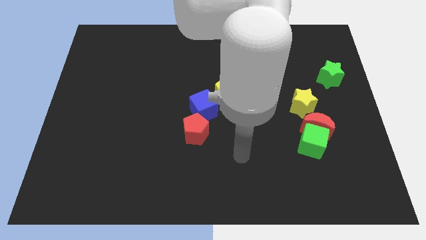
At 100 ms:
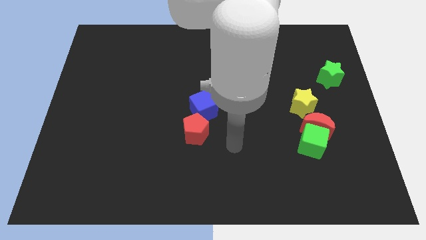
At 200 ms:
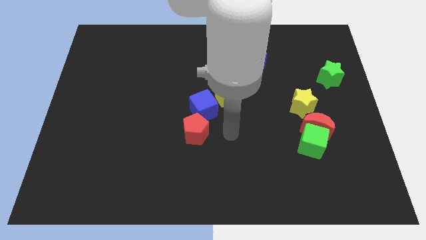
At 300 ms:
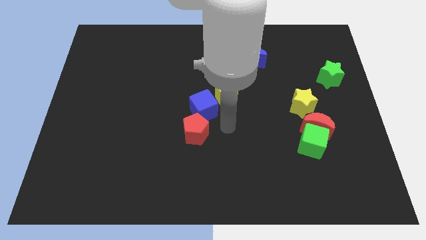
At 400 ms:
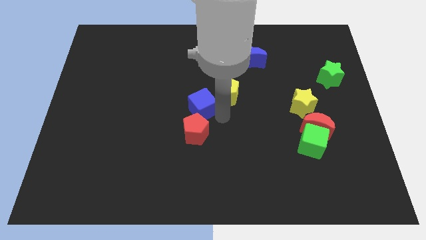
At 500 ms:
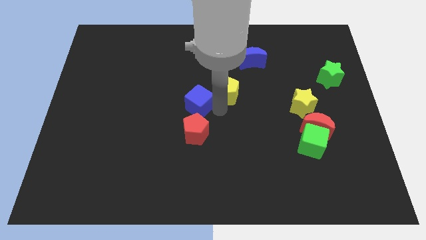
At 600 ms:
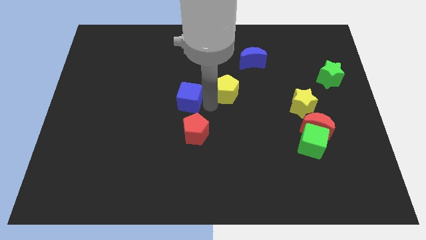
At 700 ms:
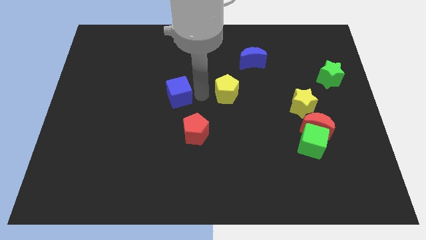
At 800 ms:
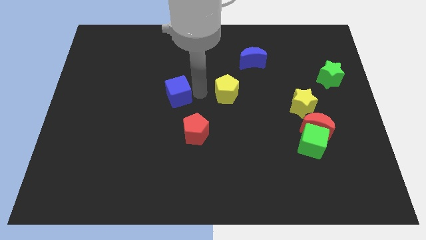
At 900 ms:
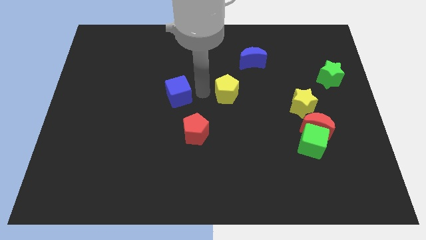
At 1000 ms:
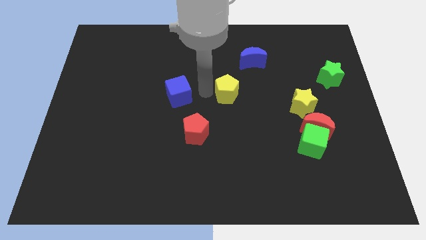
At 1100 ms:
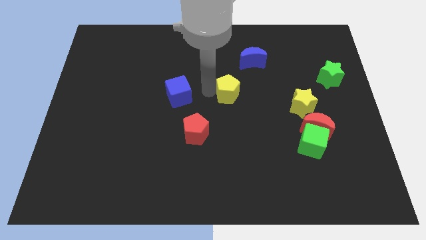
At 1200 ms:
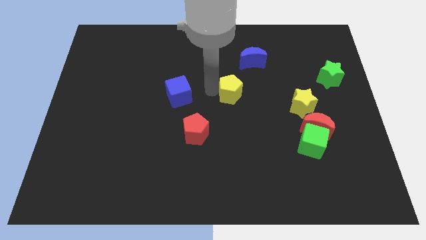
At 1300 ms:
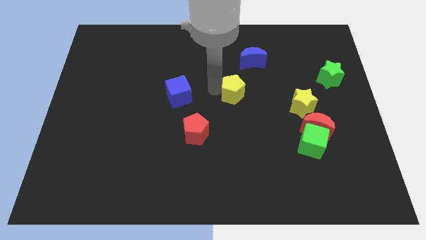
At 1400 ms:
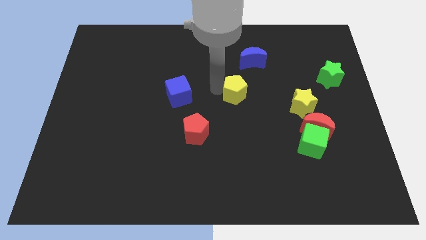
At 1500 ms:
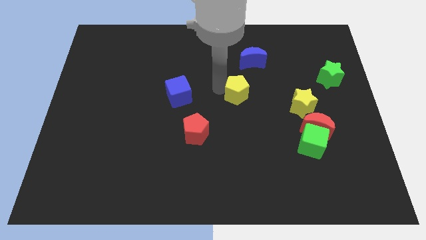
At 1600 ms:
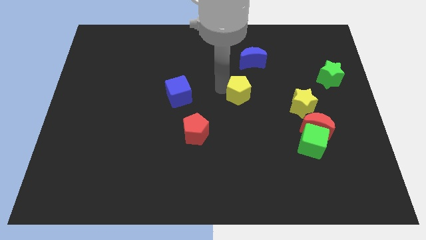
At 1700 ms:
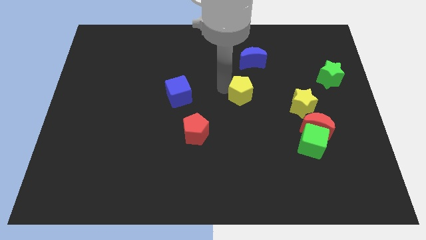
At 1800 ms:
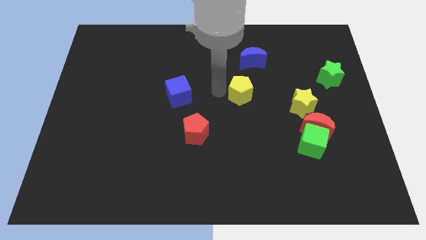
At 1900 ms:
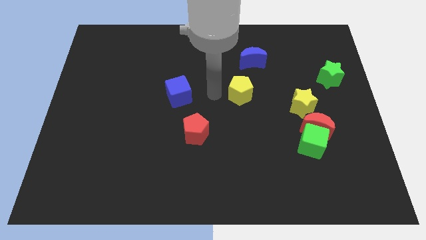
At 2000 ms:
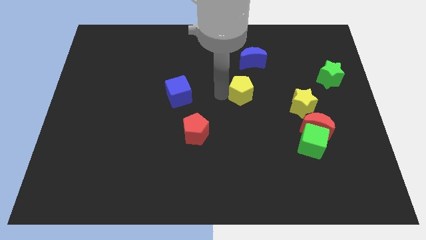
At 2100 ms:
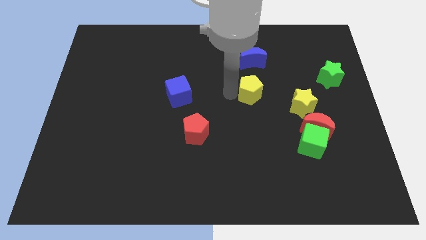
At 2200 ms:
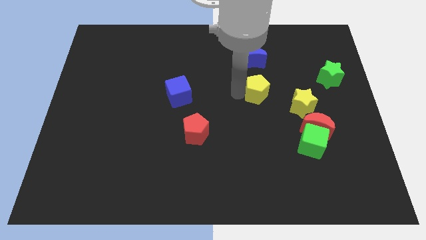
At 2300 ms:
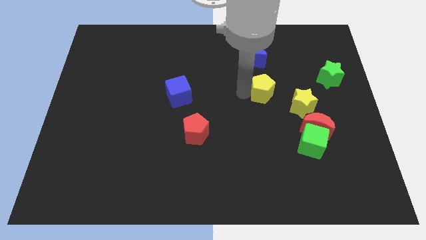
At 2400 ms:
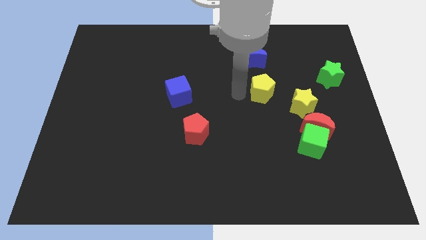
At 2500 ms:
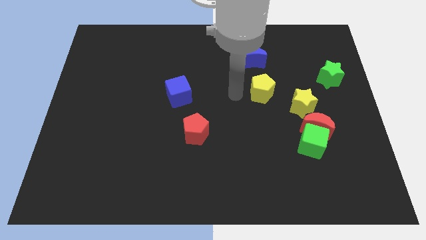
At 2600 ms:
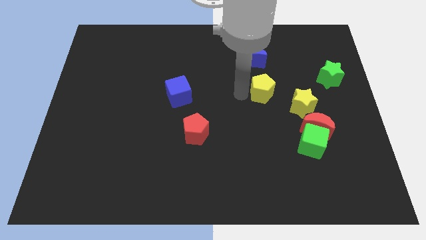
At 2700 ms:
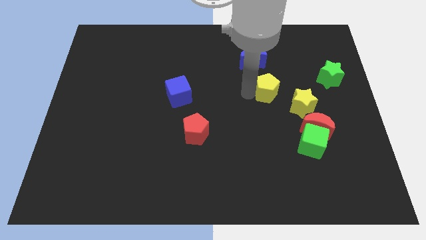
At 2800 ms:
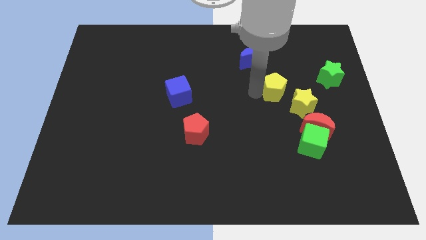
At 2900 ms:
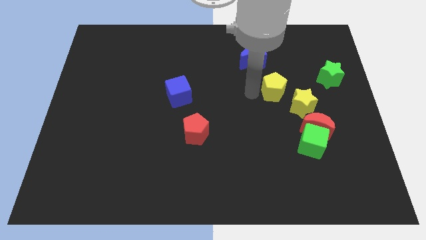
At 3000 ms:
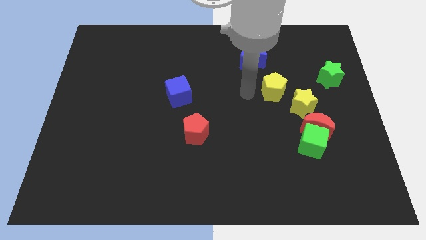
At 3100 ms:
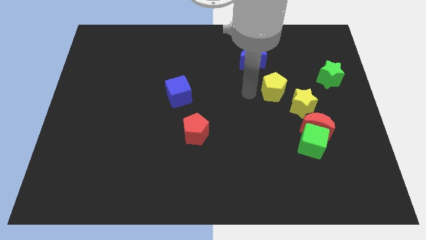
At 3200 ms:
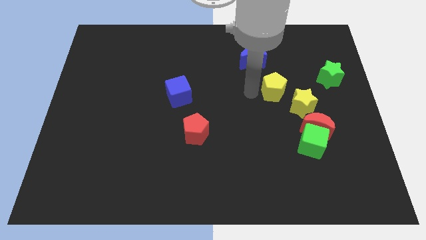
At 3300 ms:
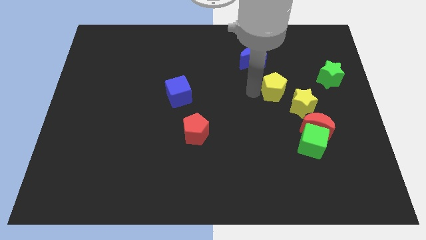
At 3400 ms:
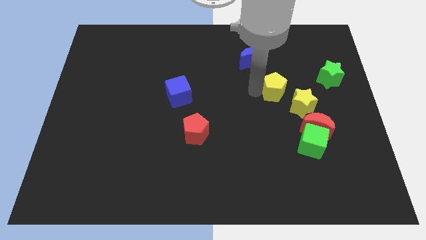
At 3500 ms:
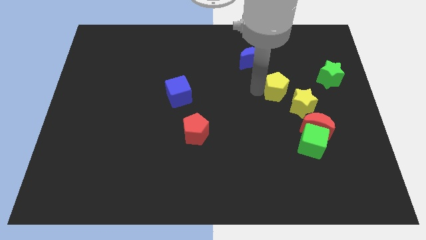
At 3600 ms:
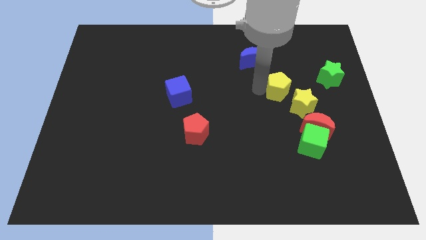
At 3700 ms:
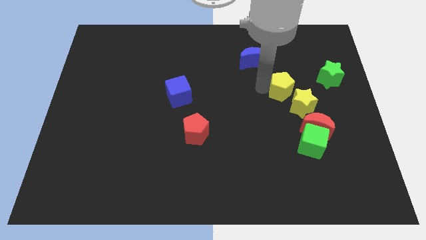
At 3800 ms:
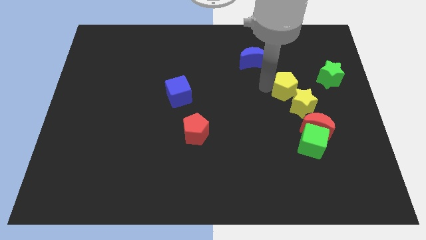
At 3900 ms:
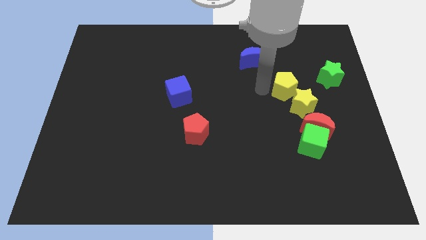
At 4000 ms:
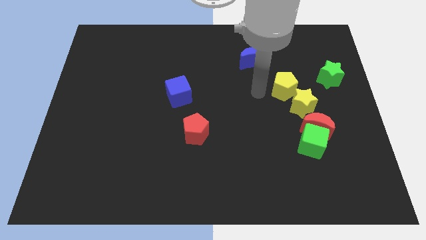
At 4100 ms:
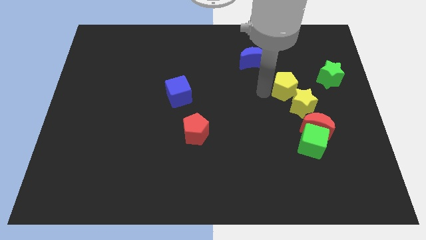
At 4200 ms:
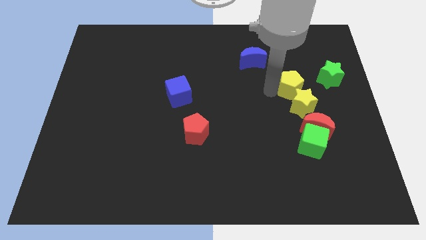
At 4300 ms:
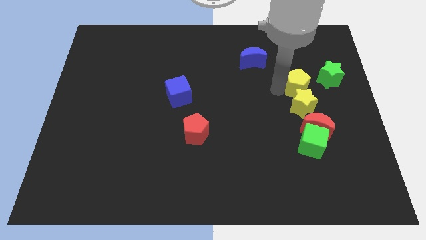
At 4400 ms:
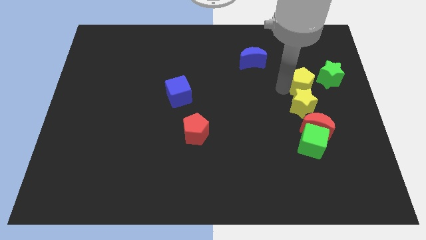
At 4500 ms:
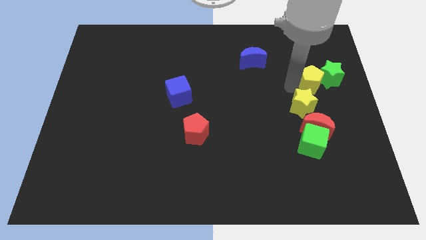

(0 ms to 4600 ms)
put the yellow pentagon close to the green star

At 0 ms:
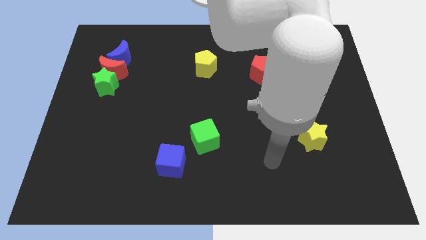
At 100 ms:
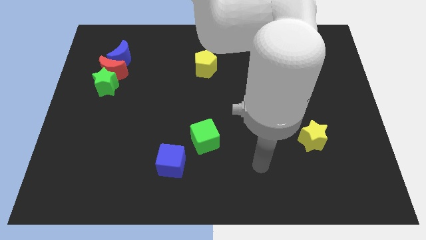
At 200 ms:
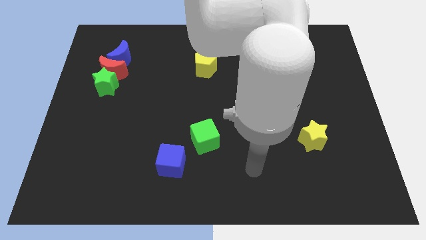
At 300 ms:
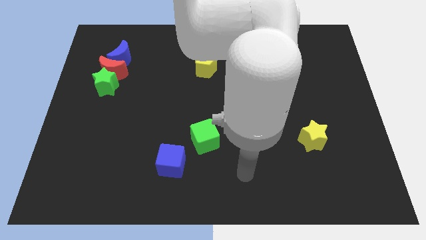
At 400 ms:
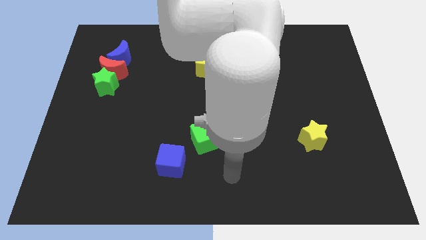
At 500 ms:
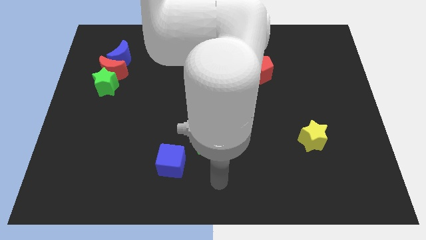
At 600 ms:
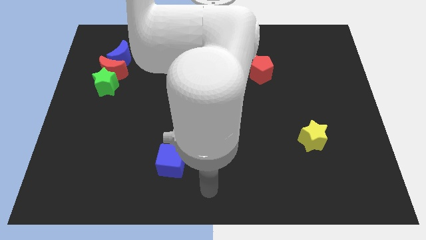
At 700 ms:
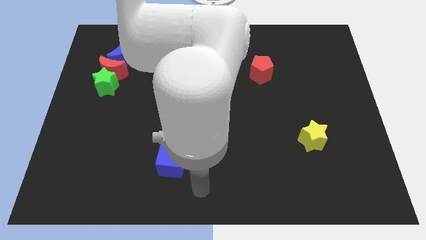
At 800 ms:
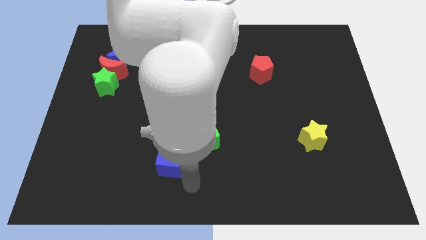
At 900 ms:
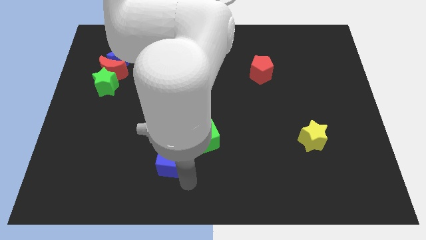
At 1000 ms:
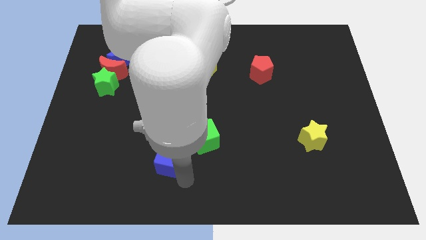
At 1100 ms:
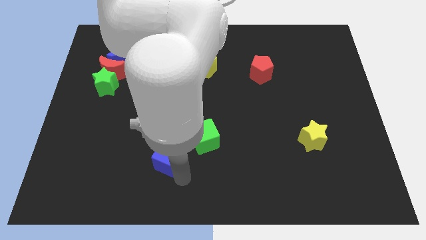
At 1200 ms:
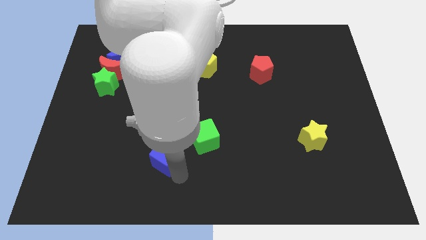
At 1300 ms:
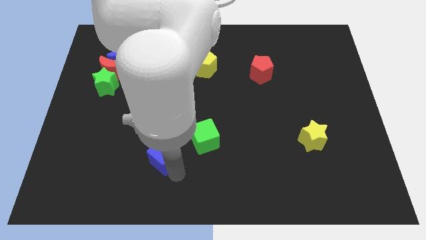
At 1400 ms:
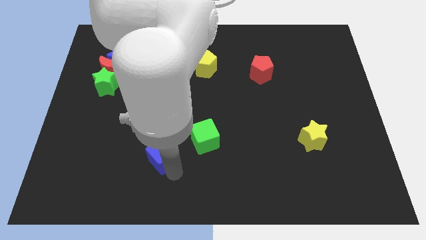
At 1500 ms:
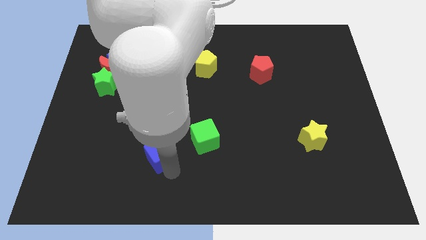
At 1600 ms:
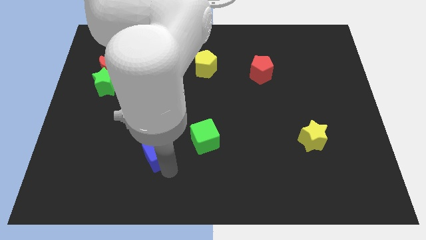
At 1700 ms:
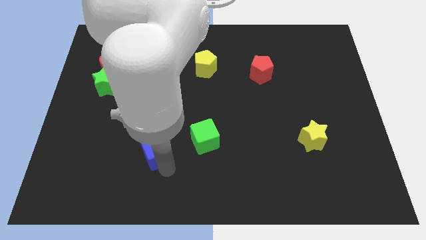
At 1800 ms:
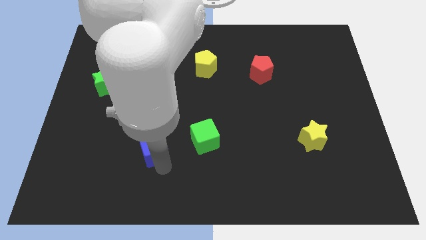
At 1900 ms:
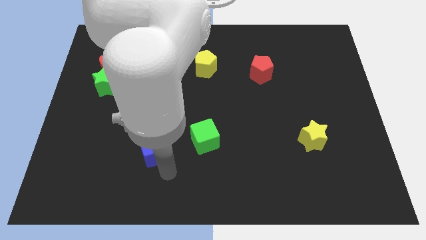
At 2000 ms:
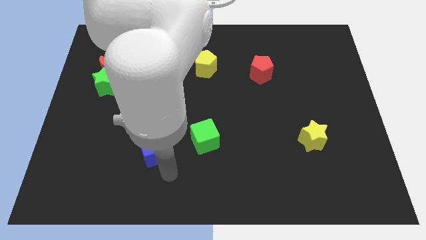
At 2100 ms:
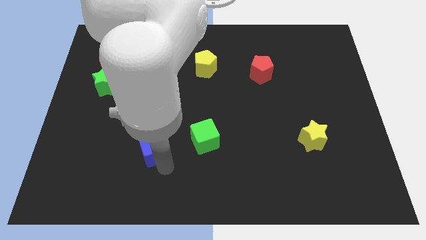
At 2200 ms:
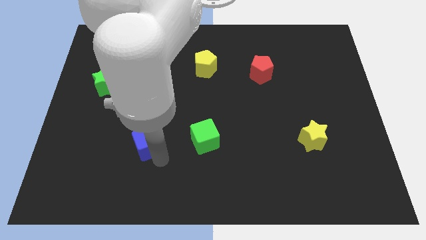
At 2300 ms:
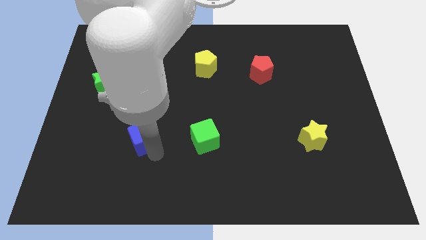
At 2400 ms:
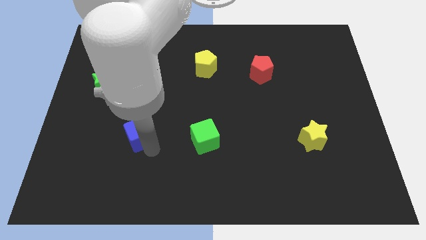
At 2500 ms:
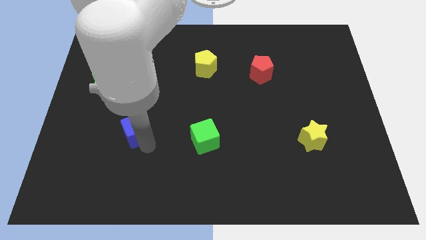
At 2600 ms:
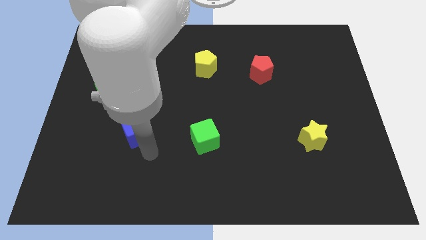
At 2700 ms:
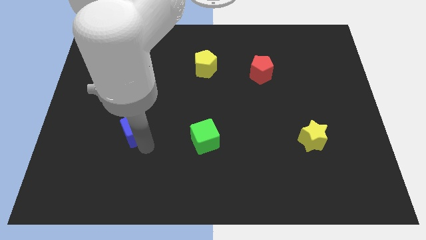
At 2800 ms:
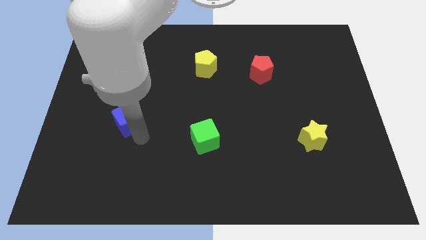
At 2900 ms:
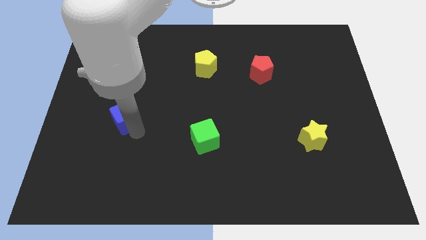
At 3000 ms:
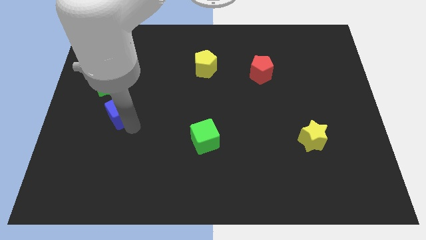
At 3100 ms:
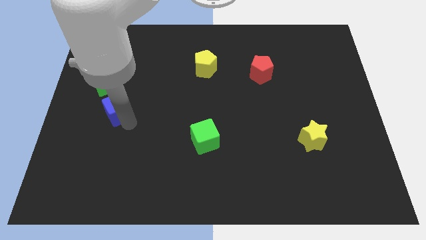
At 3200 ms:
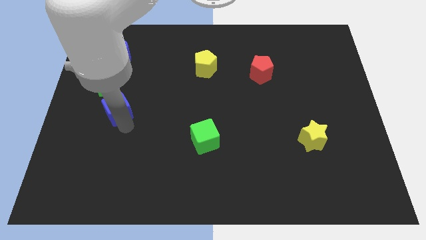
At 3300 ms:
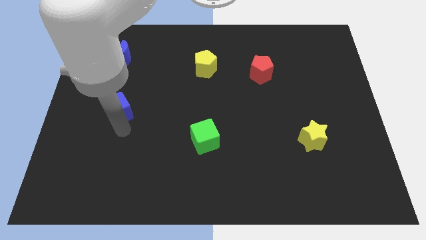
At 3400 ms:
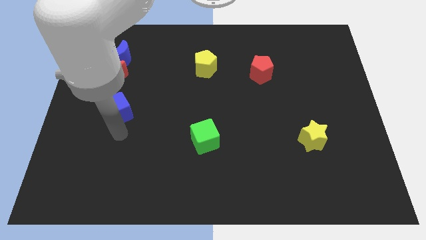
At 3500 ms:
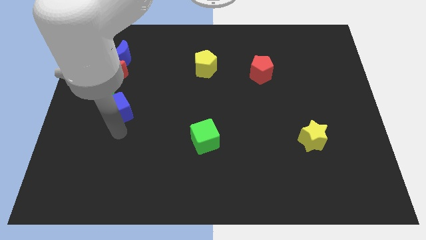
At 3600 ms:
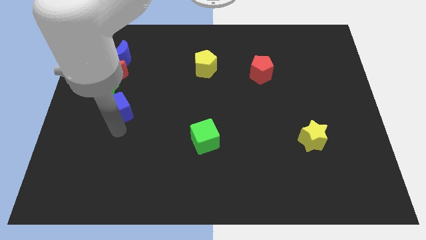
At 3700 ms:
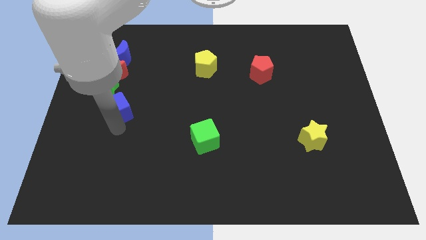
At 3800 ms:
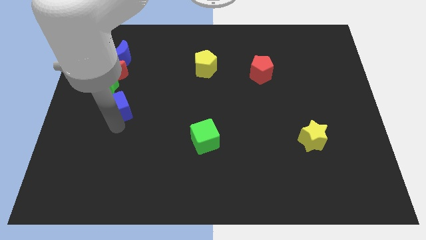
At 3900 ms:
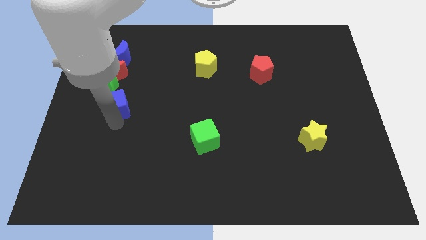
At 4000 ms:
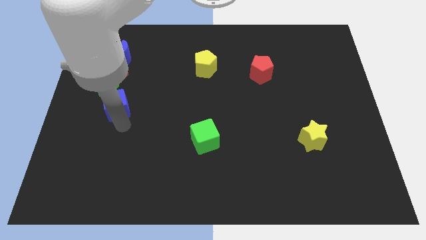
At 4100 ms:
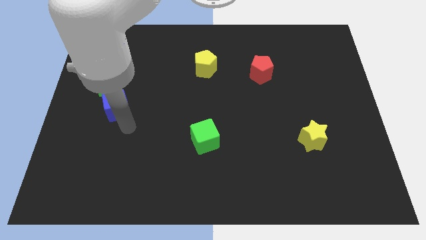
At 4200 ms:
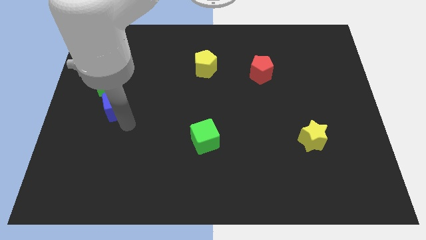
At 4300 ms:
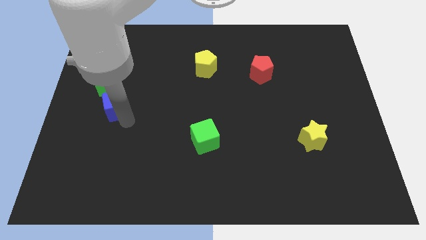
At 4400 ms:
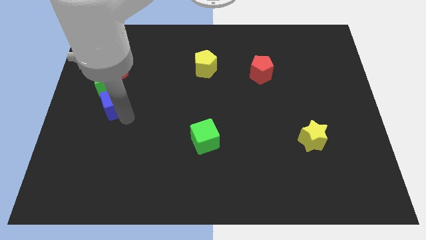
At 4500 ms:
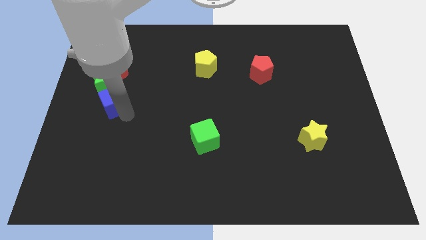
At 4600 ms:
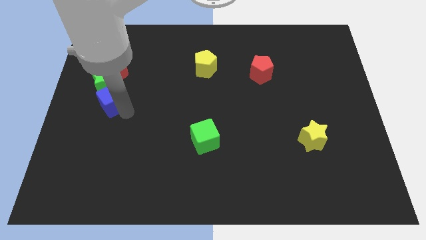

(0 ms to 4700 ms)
slide the blue cube to the green star
